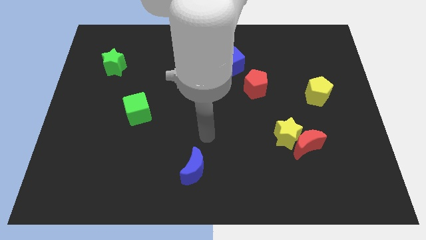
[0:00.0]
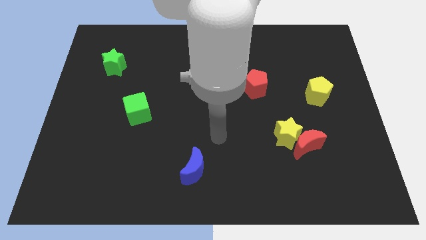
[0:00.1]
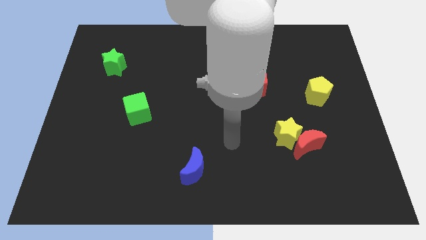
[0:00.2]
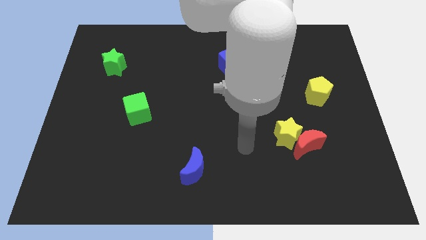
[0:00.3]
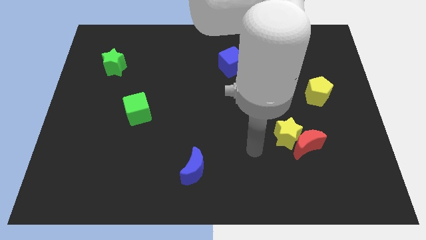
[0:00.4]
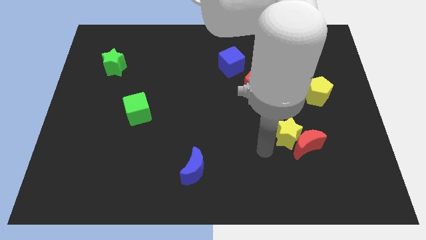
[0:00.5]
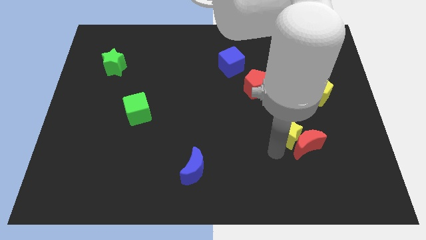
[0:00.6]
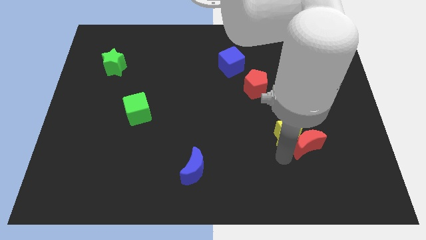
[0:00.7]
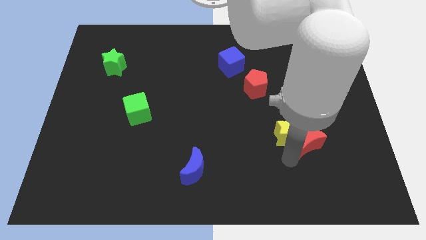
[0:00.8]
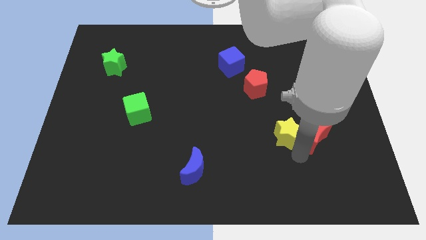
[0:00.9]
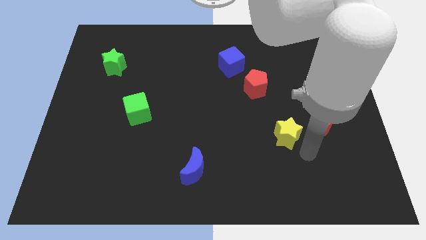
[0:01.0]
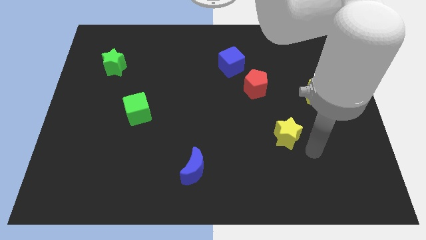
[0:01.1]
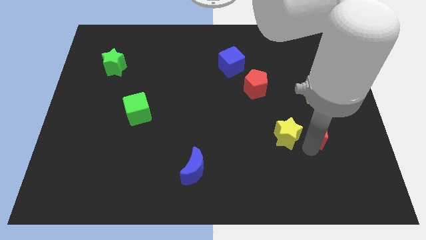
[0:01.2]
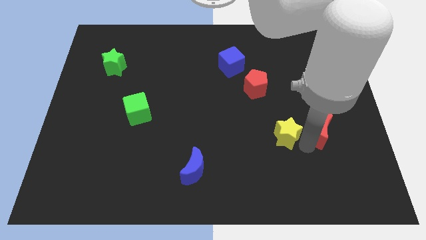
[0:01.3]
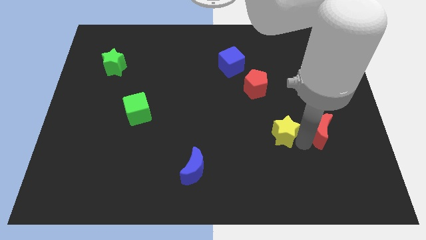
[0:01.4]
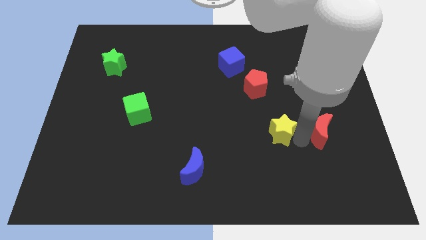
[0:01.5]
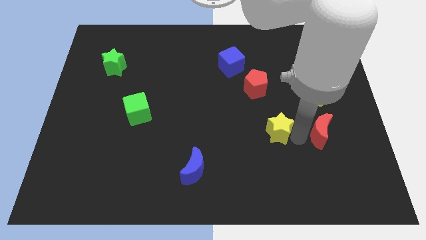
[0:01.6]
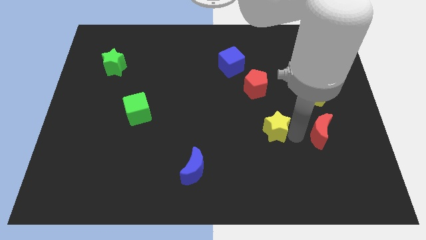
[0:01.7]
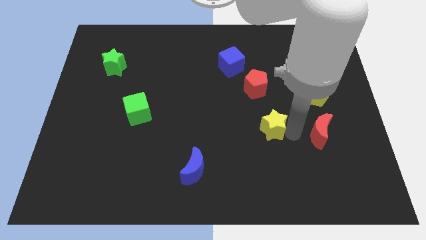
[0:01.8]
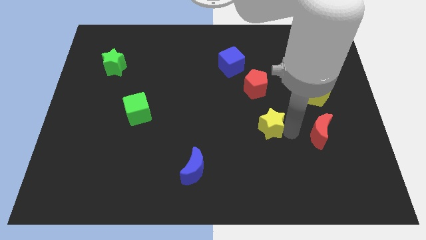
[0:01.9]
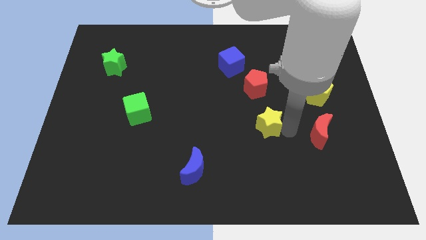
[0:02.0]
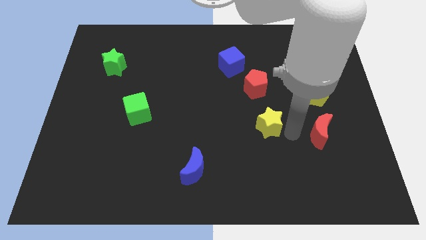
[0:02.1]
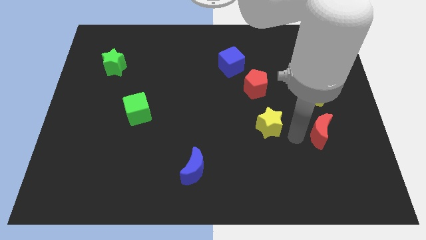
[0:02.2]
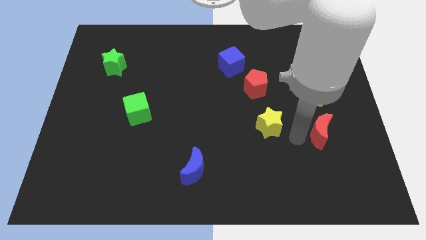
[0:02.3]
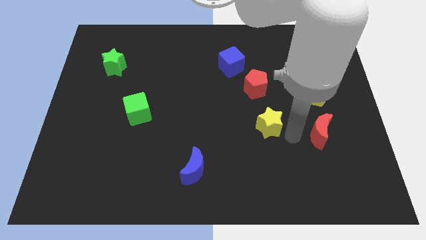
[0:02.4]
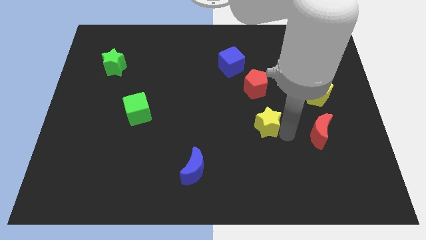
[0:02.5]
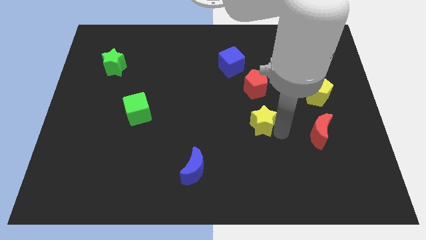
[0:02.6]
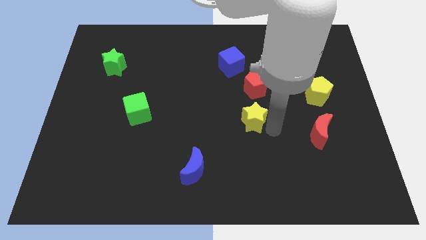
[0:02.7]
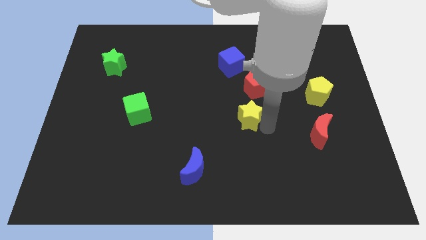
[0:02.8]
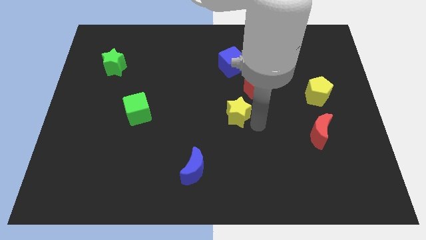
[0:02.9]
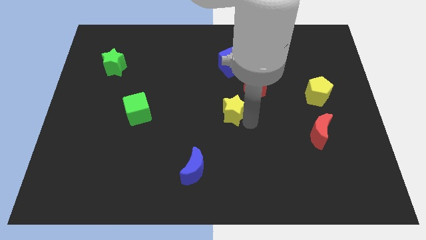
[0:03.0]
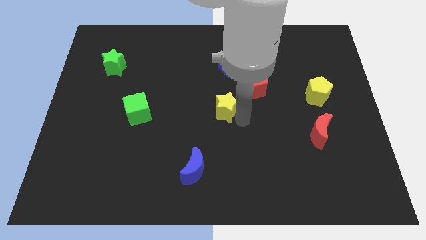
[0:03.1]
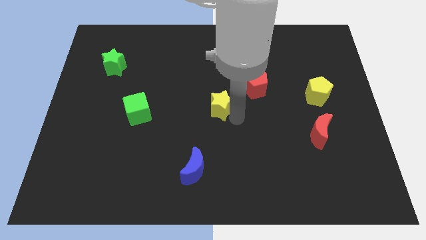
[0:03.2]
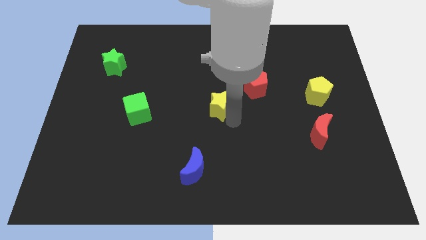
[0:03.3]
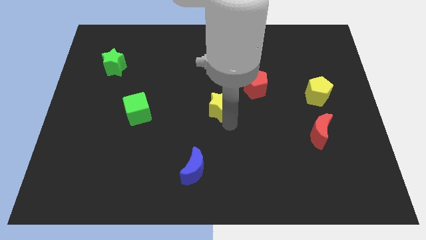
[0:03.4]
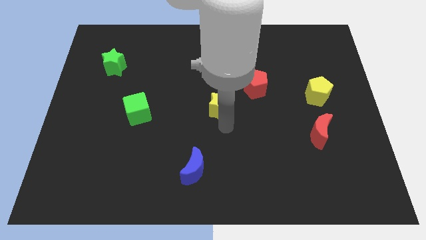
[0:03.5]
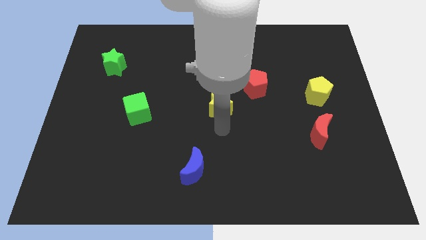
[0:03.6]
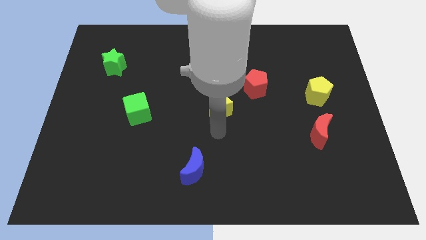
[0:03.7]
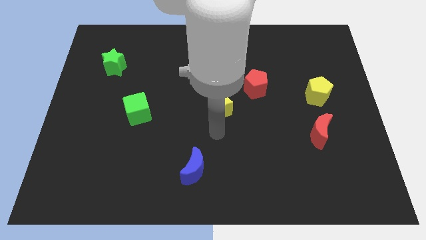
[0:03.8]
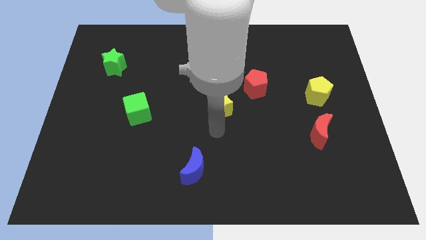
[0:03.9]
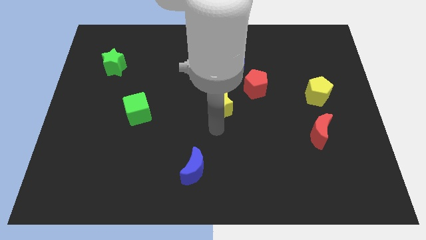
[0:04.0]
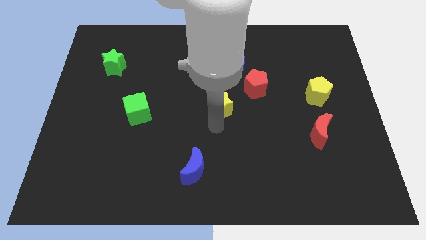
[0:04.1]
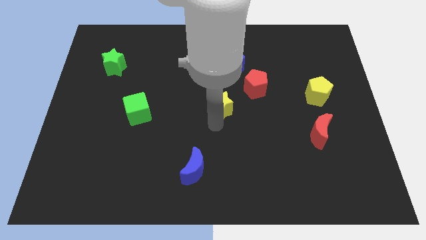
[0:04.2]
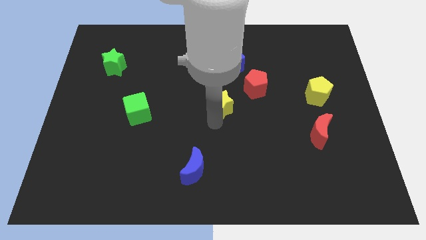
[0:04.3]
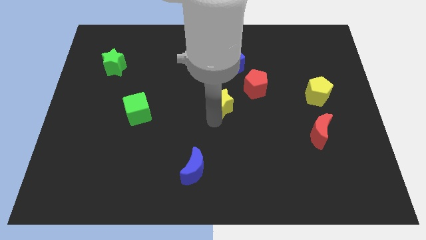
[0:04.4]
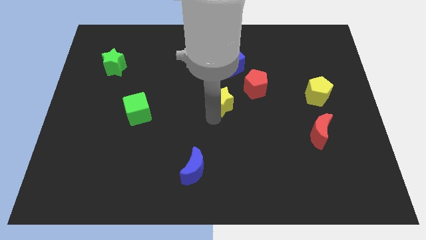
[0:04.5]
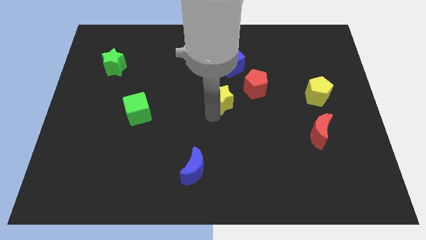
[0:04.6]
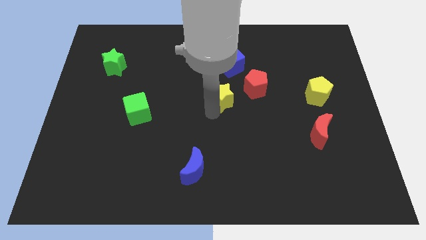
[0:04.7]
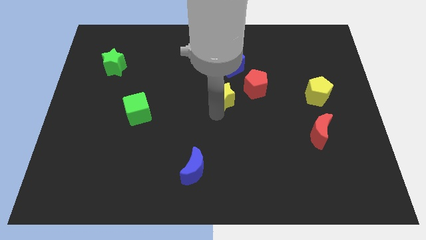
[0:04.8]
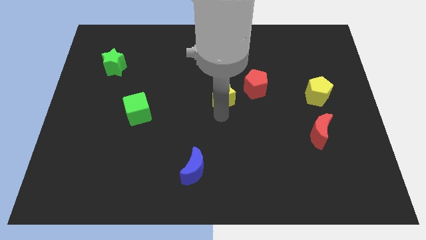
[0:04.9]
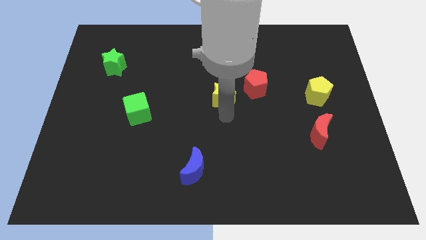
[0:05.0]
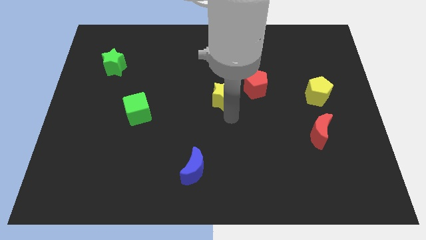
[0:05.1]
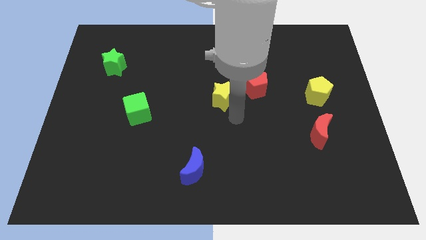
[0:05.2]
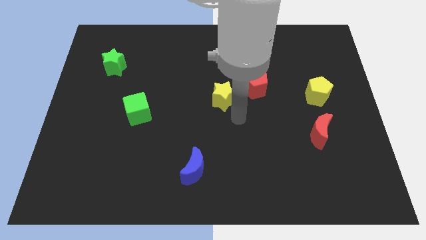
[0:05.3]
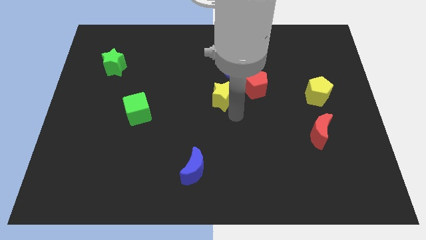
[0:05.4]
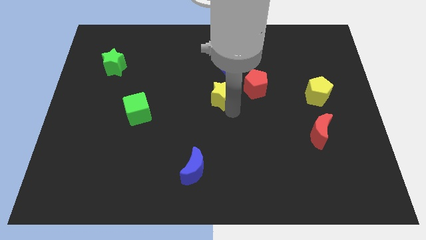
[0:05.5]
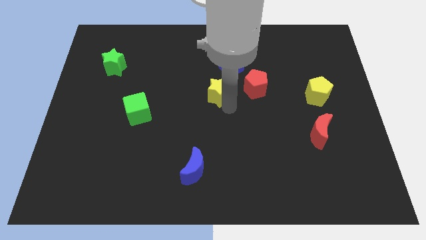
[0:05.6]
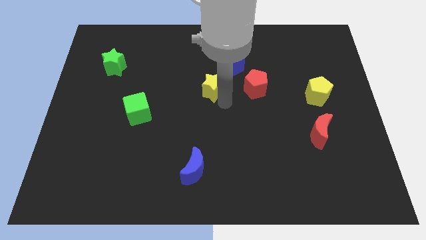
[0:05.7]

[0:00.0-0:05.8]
move the yellow star upwards and then to the left

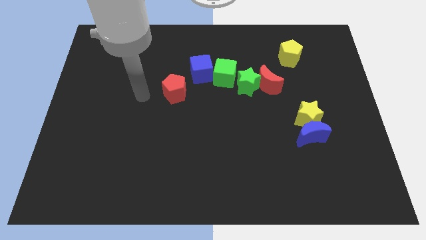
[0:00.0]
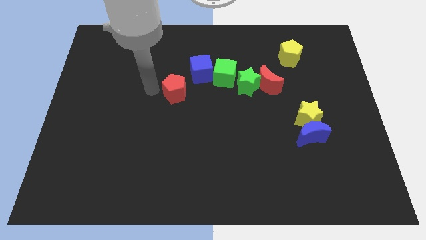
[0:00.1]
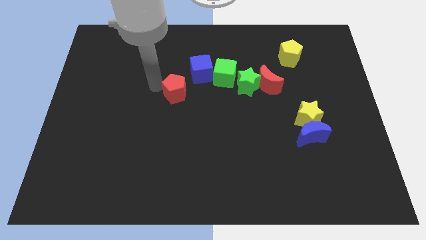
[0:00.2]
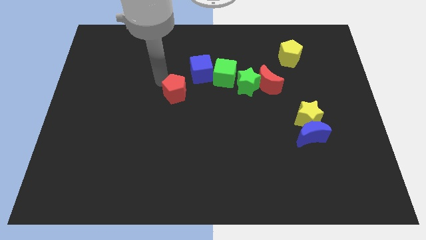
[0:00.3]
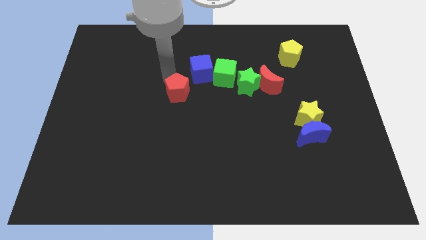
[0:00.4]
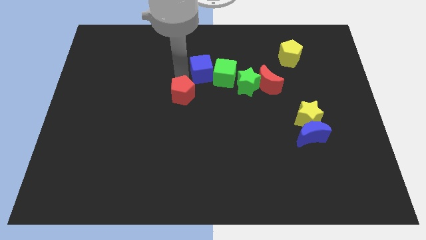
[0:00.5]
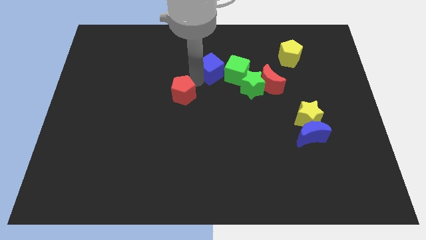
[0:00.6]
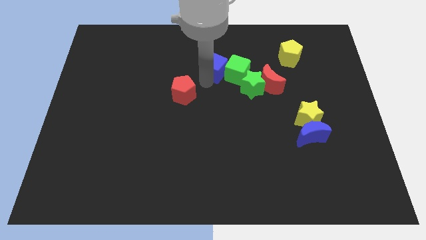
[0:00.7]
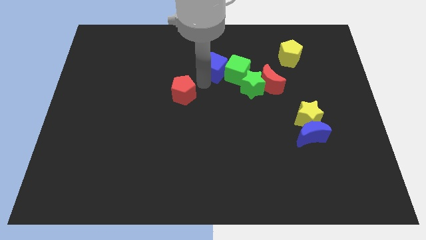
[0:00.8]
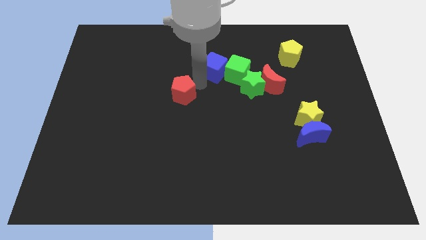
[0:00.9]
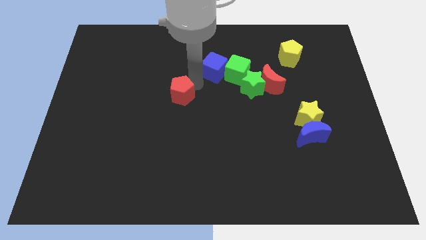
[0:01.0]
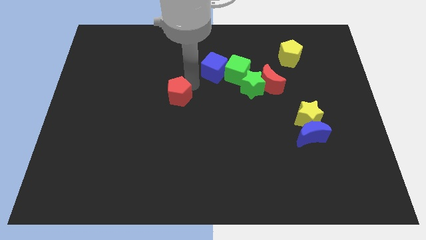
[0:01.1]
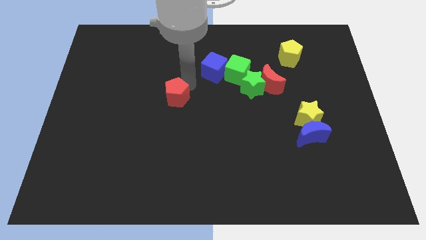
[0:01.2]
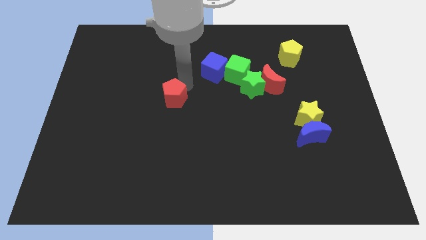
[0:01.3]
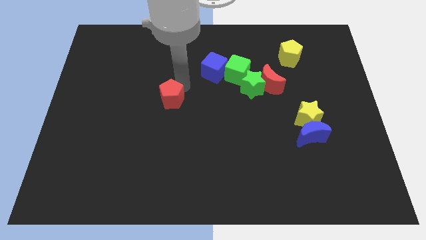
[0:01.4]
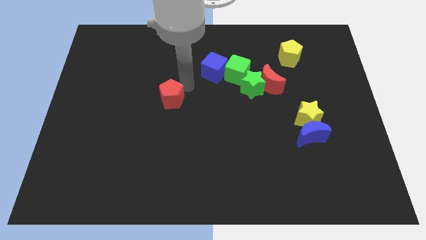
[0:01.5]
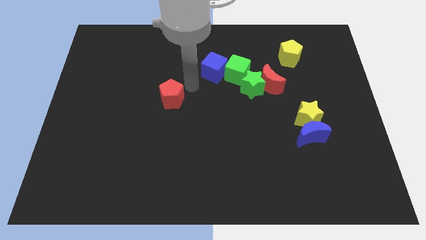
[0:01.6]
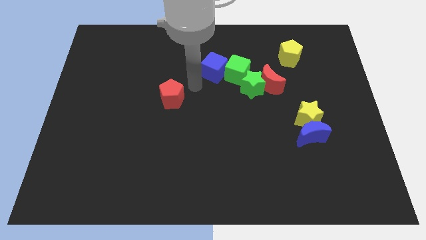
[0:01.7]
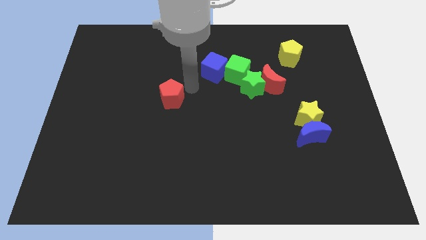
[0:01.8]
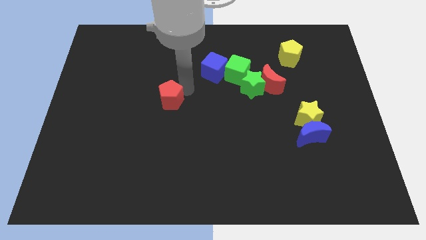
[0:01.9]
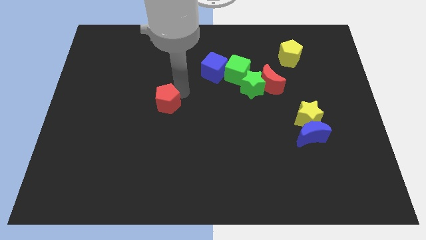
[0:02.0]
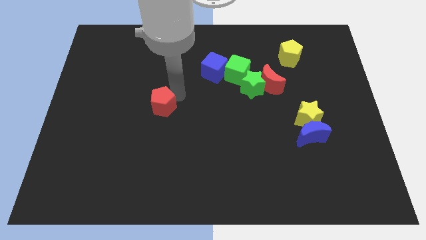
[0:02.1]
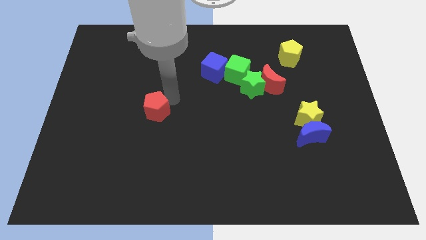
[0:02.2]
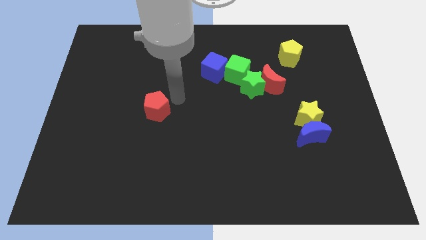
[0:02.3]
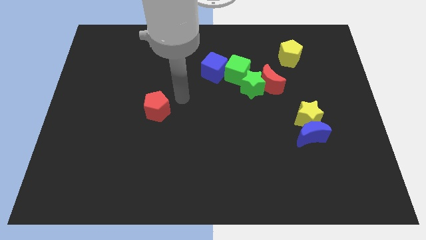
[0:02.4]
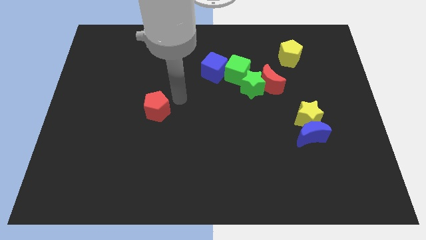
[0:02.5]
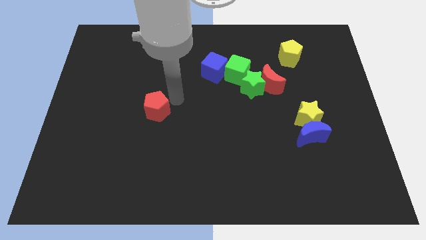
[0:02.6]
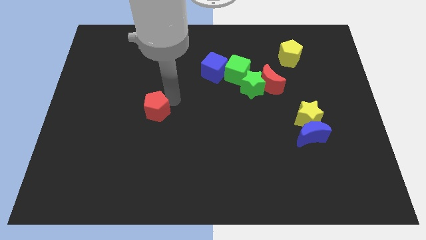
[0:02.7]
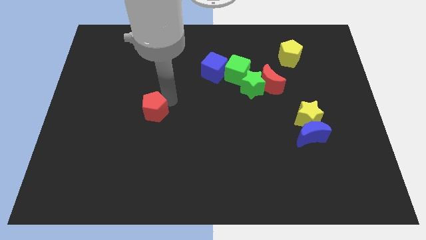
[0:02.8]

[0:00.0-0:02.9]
slightly slide the red pentagon downwards and left
